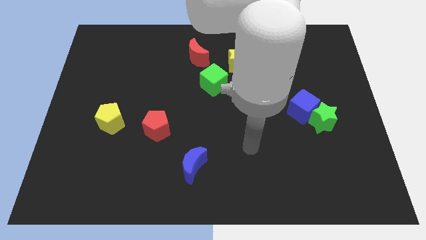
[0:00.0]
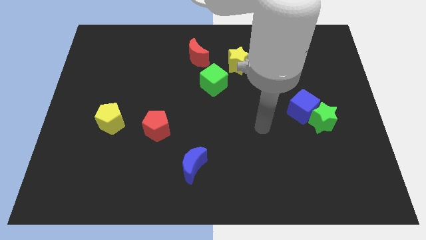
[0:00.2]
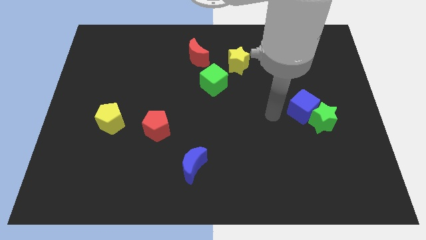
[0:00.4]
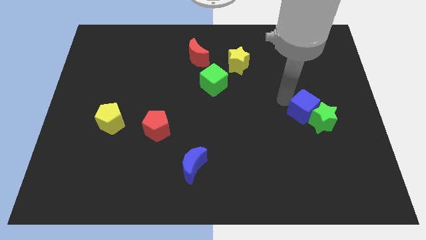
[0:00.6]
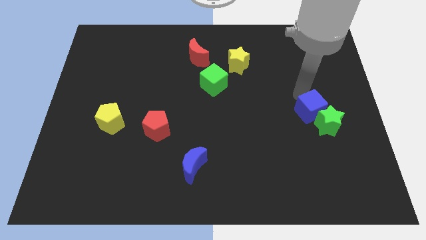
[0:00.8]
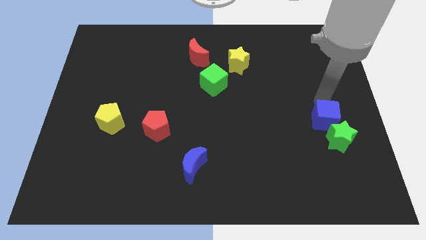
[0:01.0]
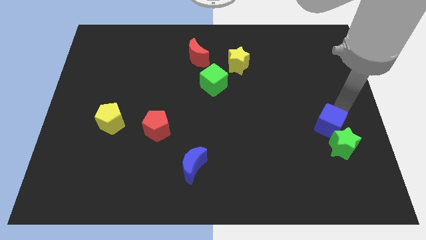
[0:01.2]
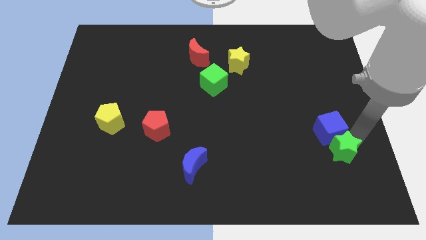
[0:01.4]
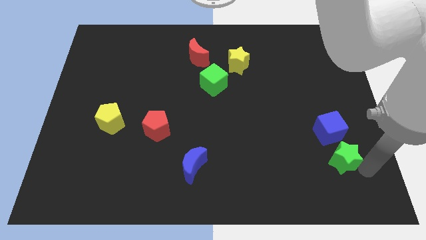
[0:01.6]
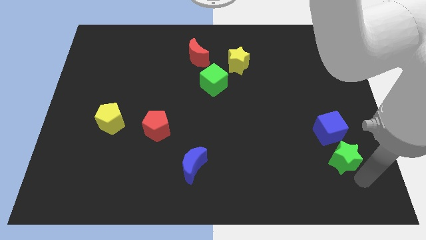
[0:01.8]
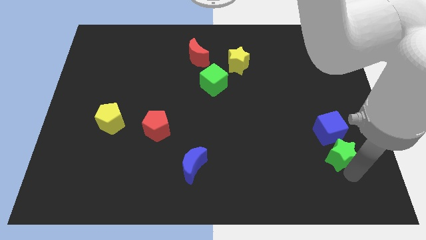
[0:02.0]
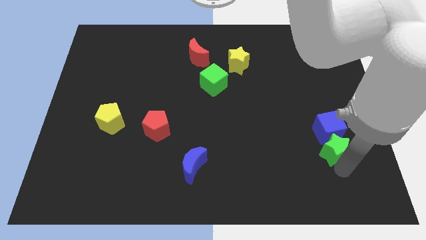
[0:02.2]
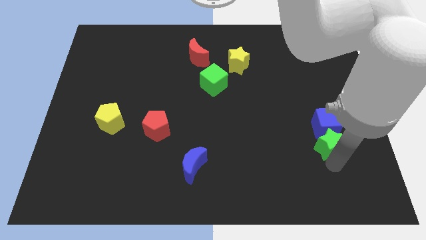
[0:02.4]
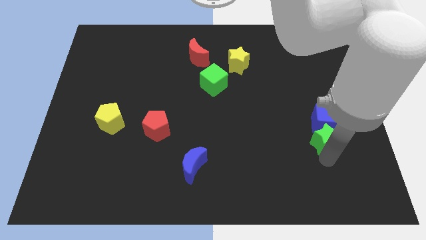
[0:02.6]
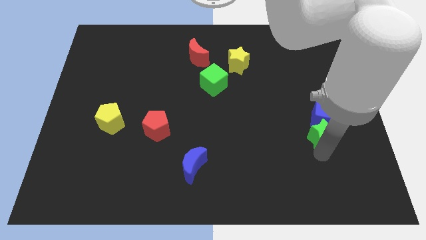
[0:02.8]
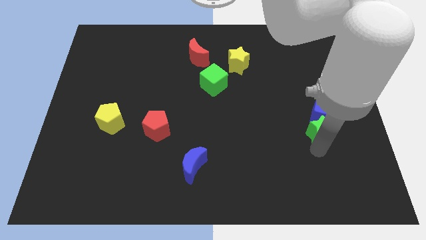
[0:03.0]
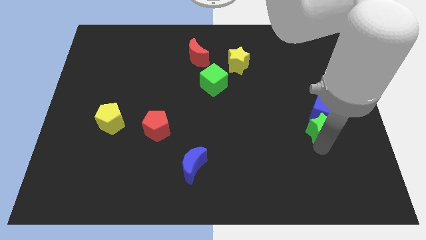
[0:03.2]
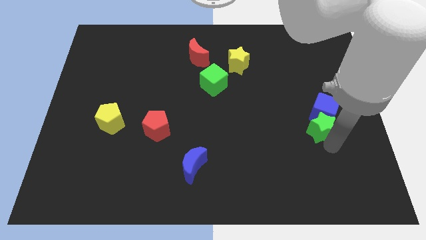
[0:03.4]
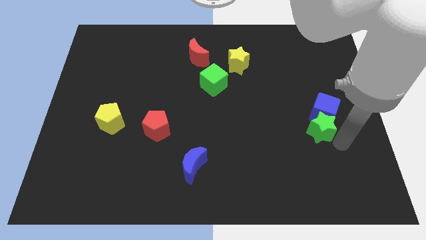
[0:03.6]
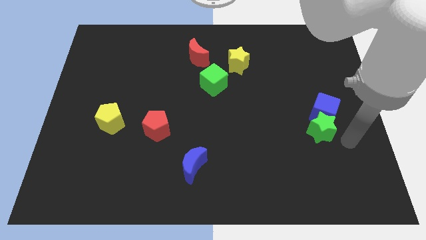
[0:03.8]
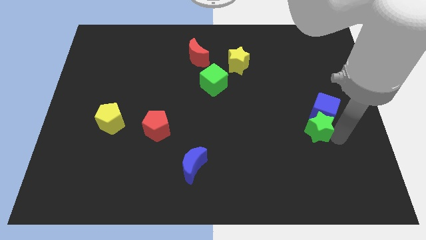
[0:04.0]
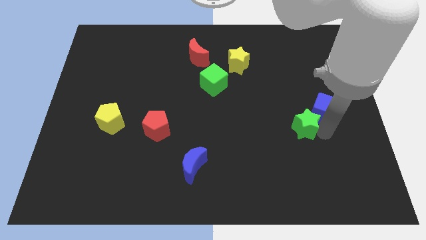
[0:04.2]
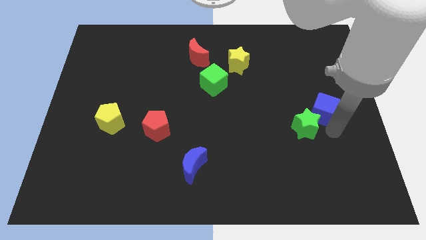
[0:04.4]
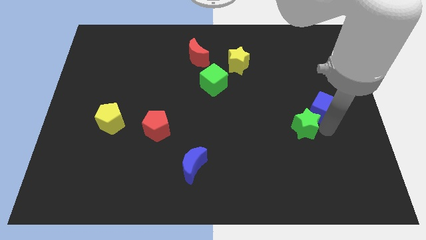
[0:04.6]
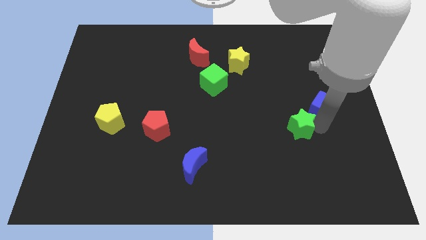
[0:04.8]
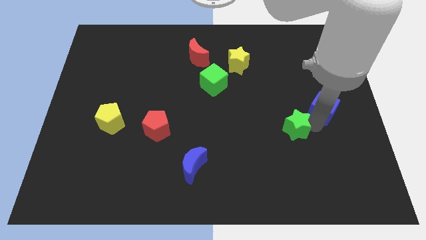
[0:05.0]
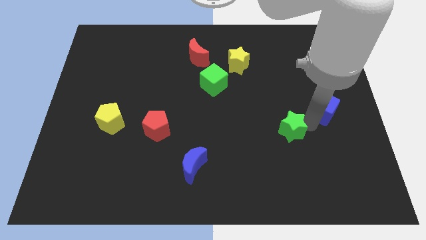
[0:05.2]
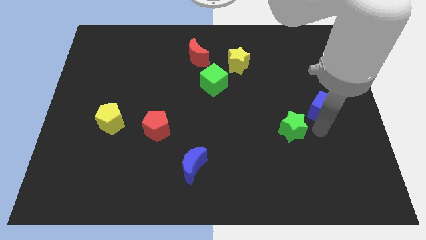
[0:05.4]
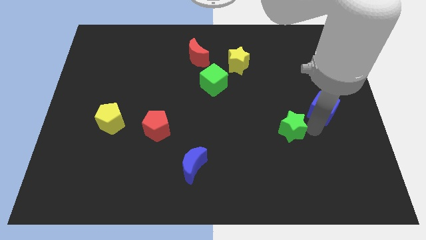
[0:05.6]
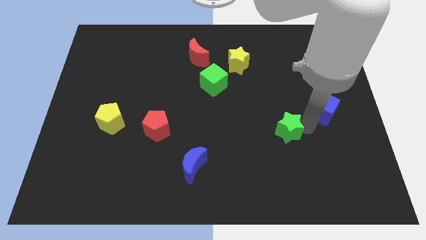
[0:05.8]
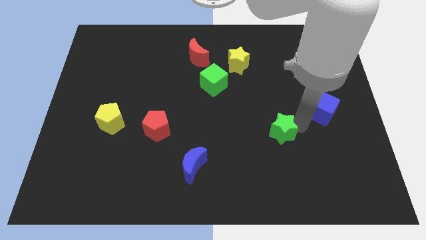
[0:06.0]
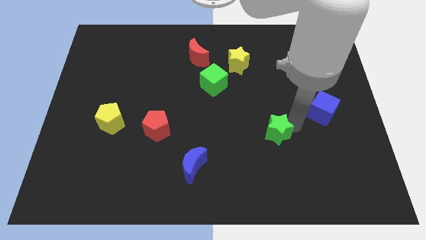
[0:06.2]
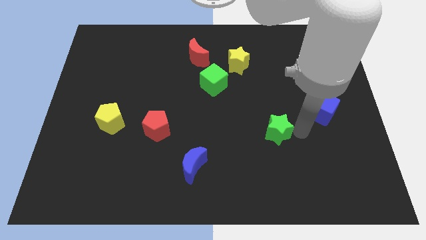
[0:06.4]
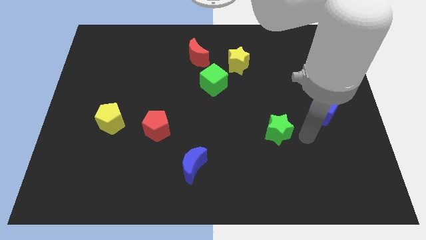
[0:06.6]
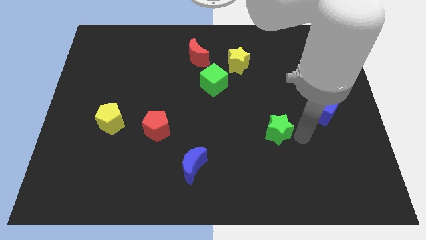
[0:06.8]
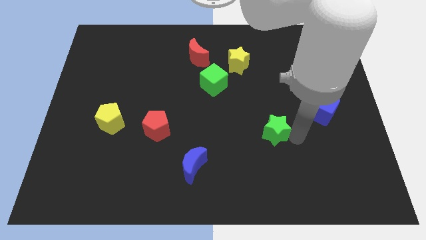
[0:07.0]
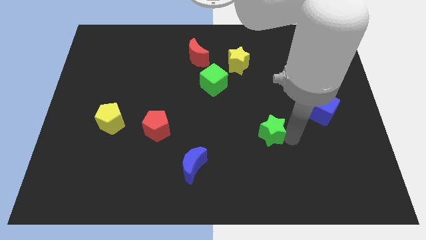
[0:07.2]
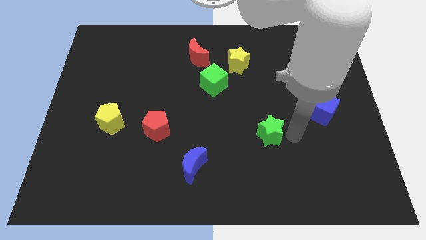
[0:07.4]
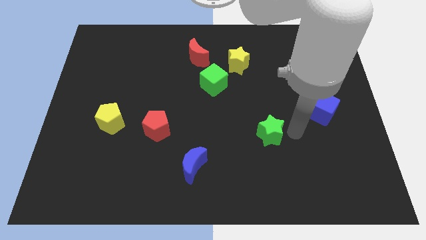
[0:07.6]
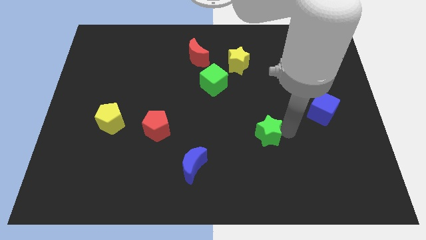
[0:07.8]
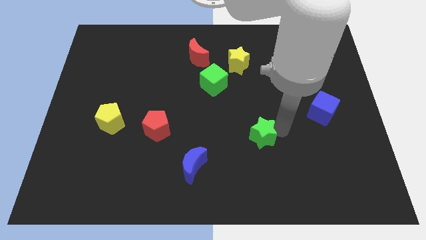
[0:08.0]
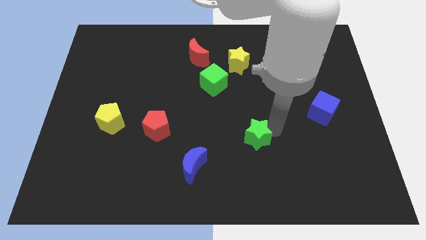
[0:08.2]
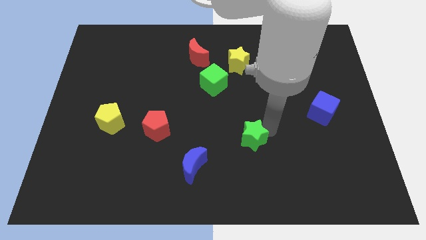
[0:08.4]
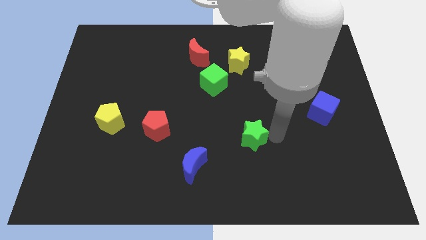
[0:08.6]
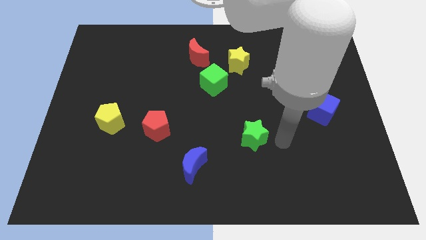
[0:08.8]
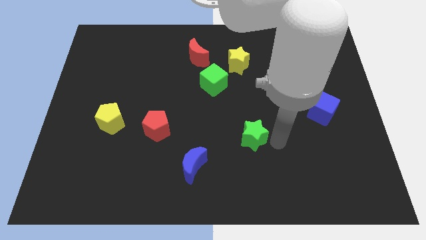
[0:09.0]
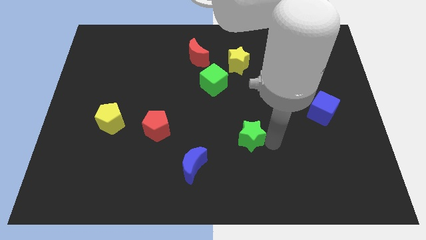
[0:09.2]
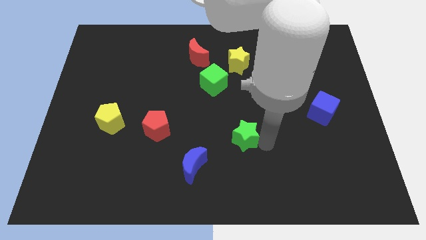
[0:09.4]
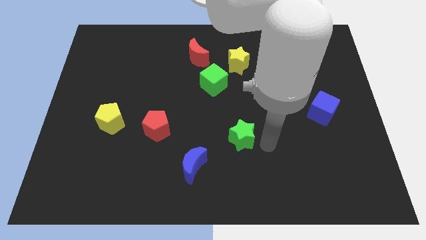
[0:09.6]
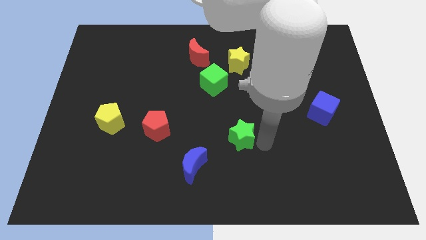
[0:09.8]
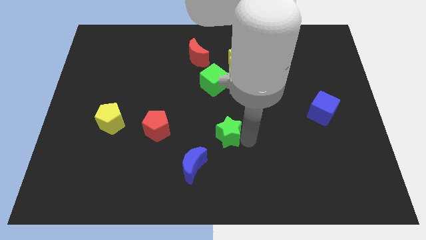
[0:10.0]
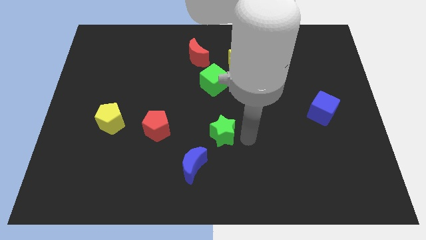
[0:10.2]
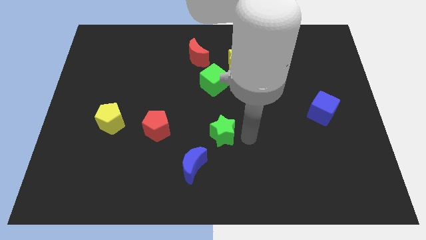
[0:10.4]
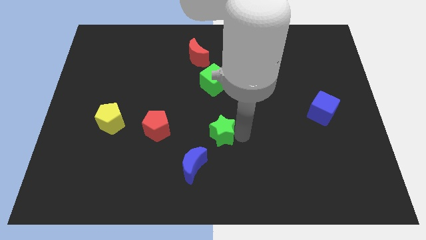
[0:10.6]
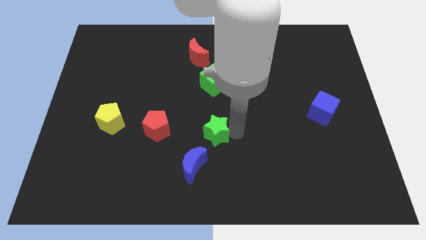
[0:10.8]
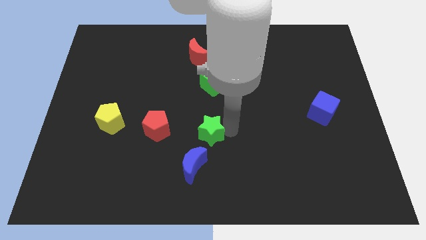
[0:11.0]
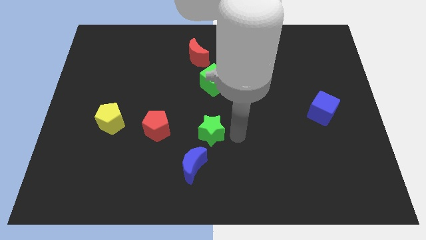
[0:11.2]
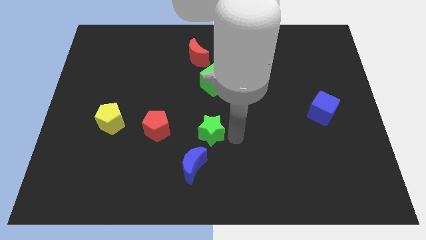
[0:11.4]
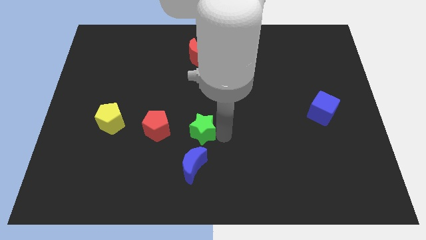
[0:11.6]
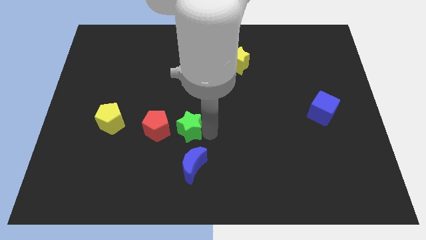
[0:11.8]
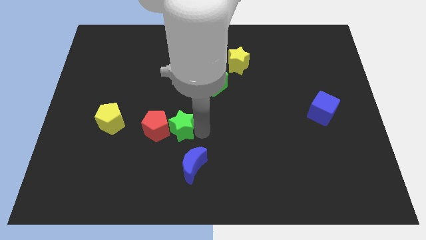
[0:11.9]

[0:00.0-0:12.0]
push the green star towards the red pentagon
